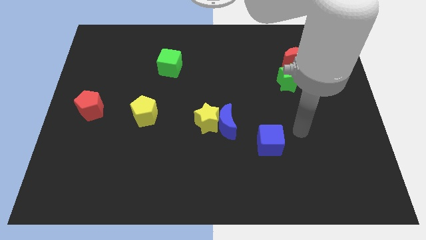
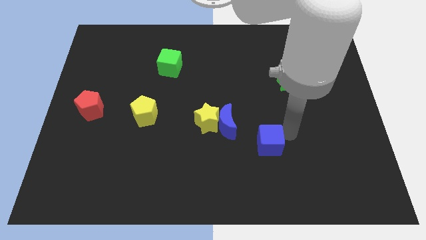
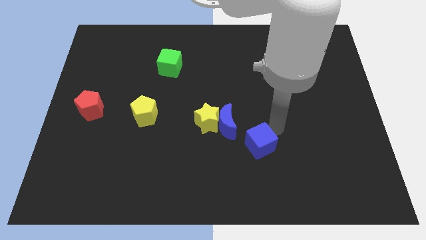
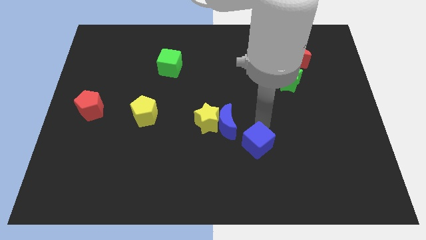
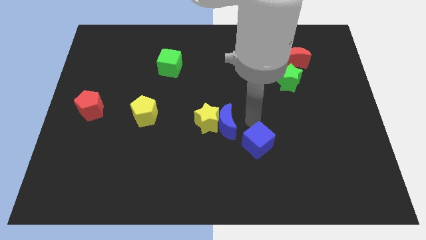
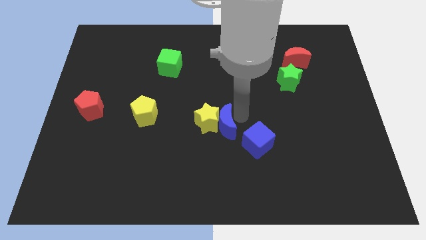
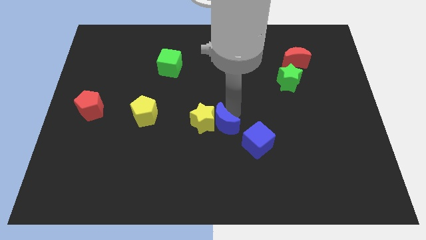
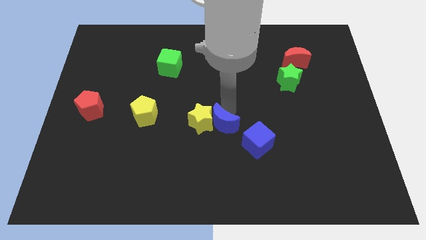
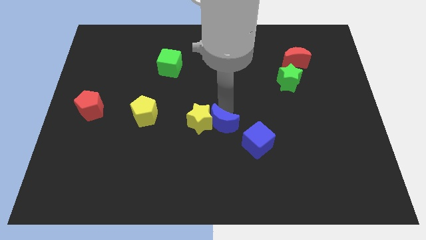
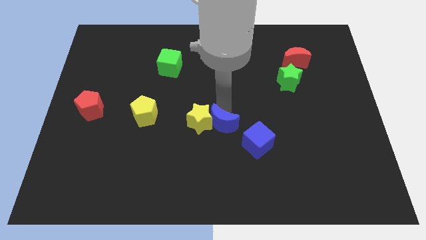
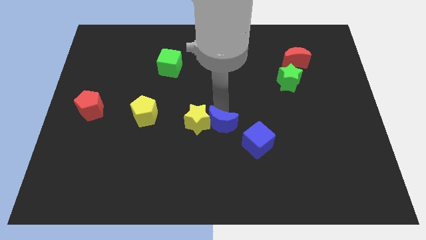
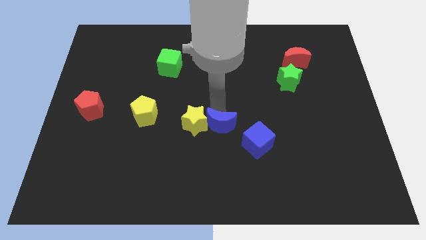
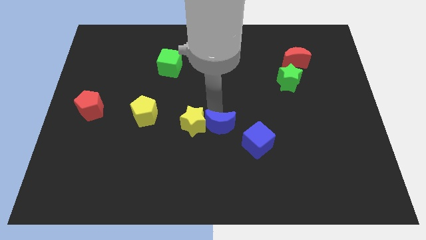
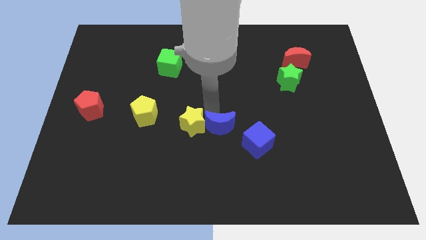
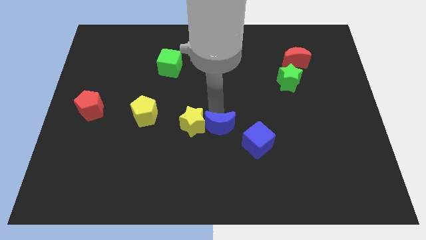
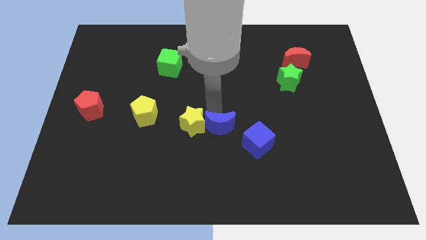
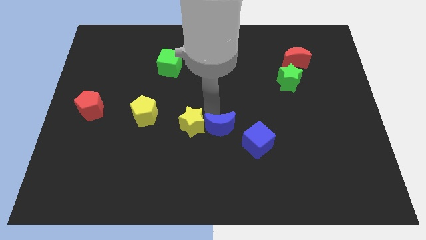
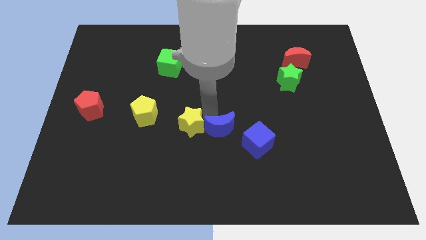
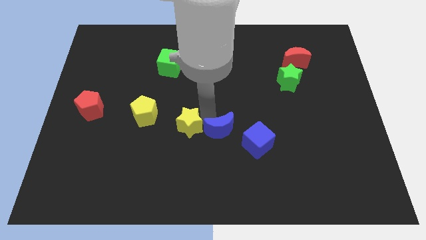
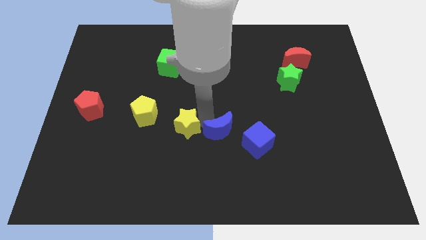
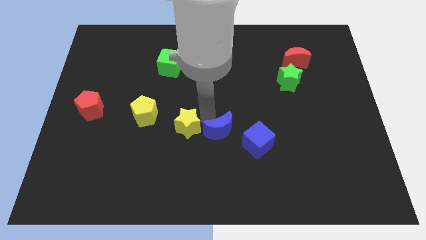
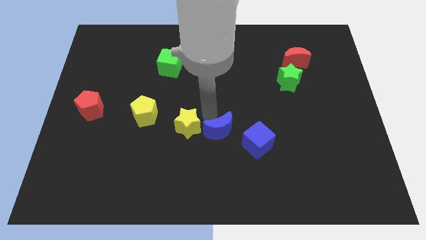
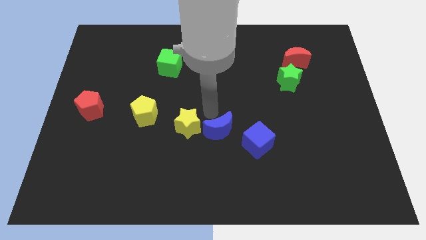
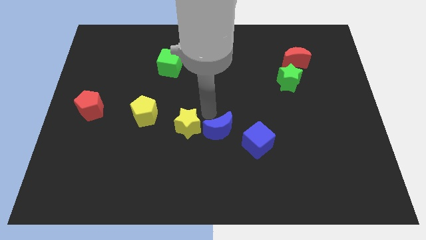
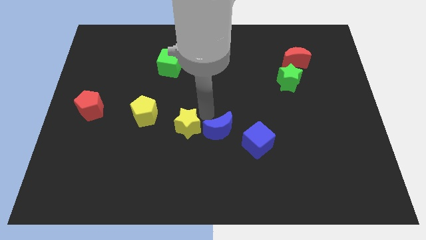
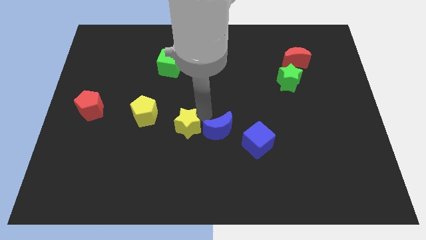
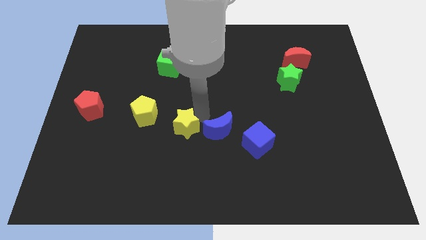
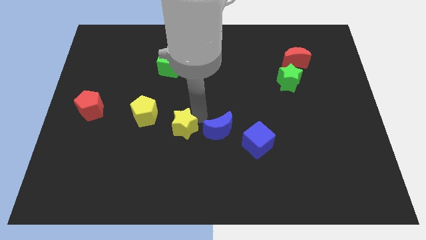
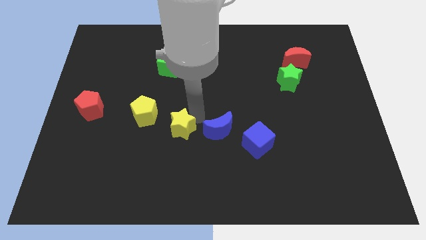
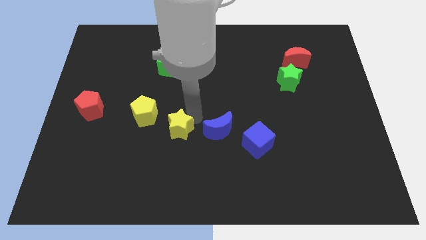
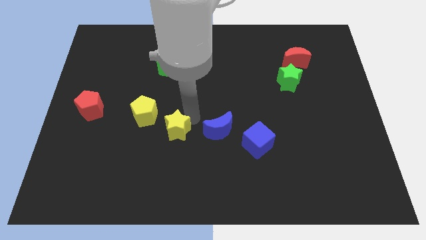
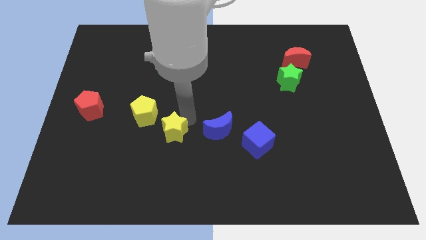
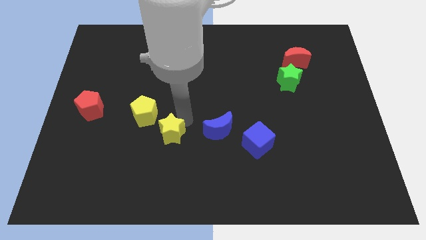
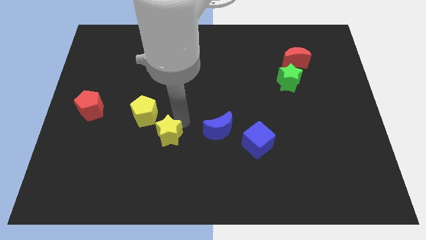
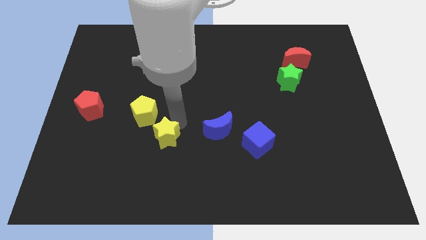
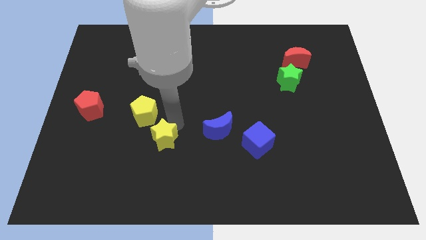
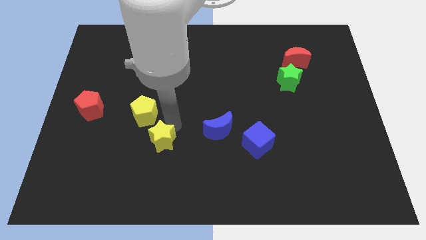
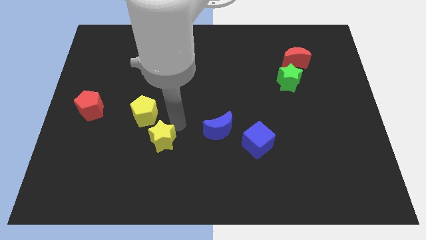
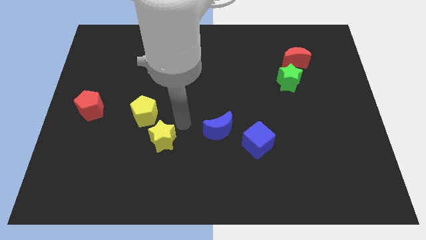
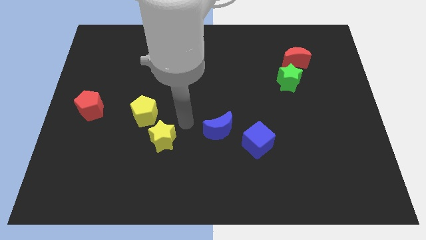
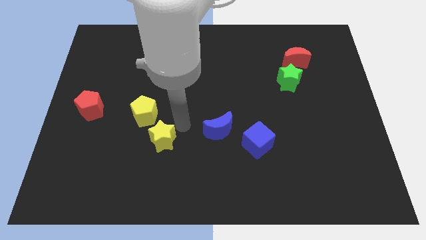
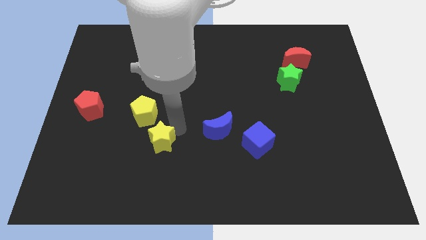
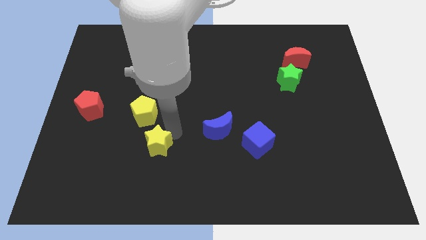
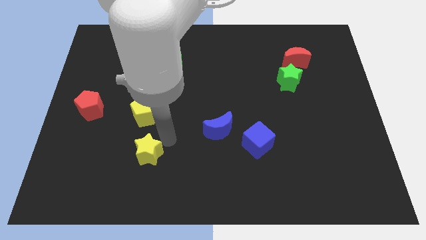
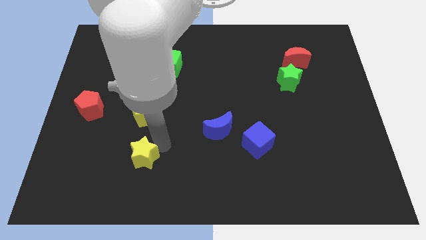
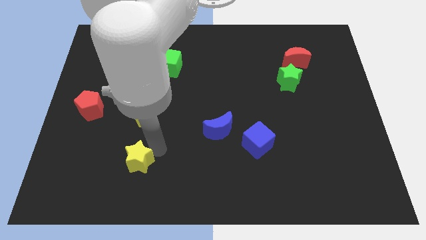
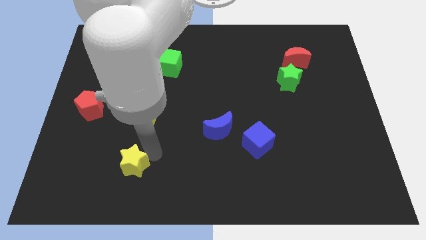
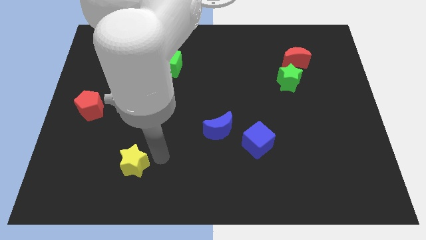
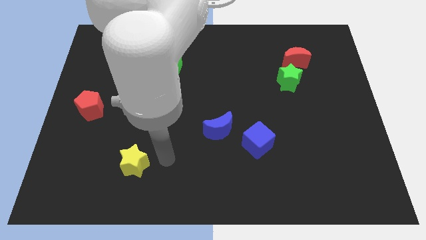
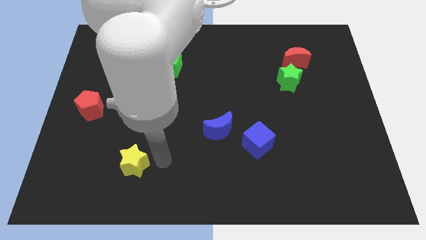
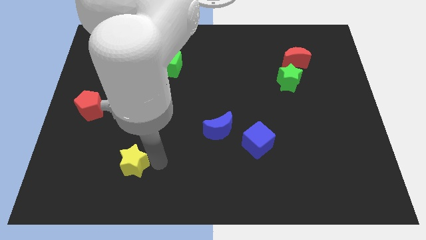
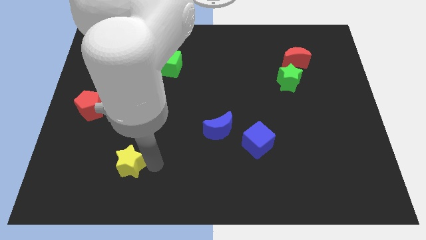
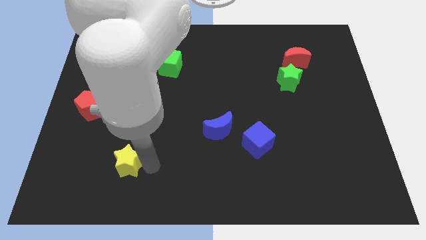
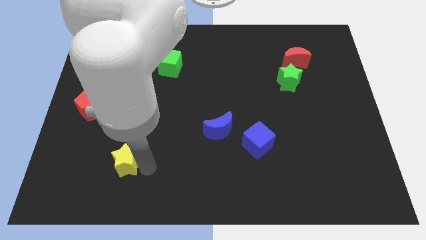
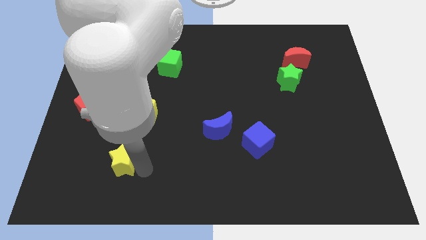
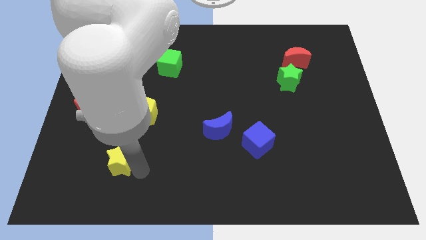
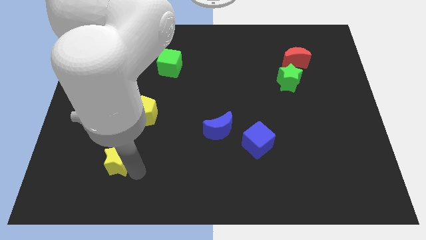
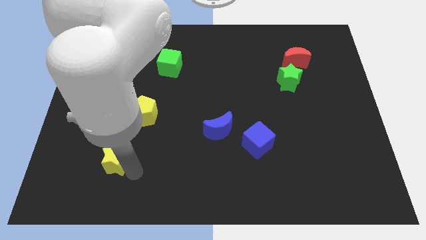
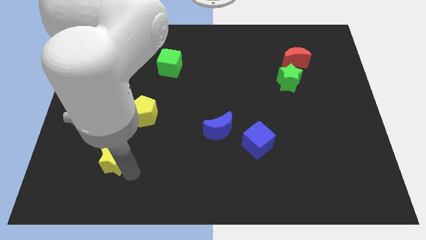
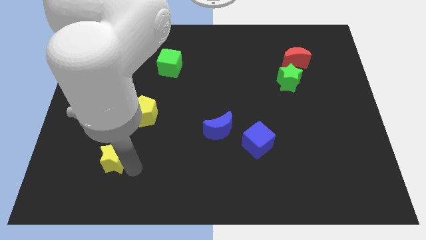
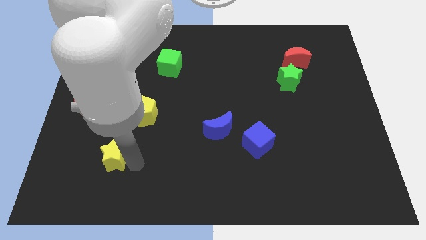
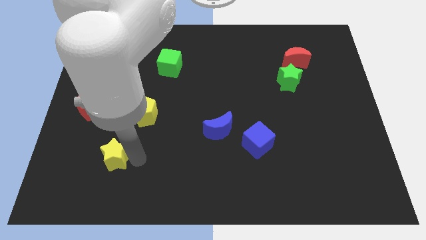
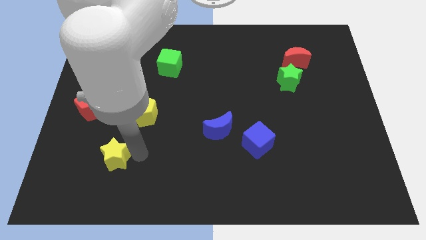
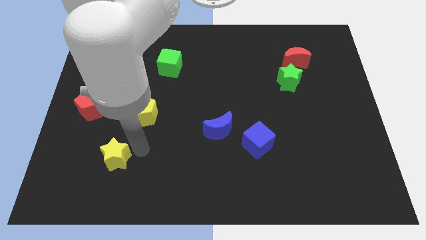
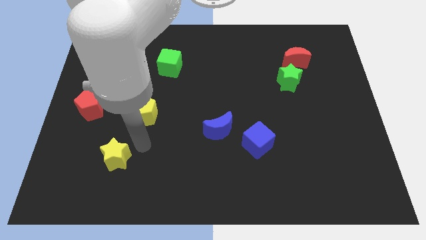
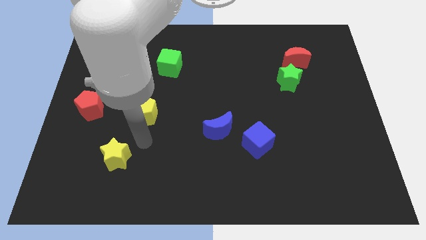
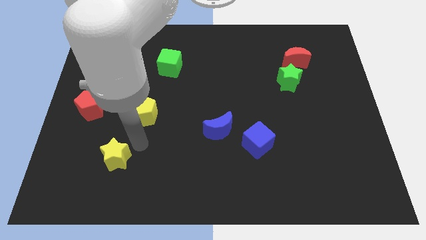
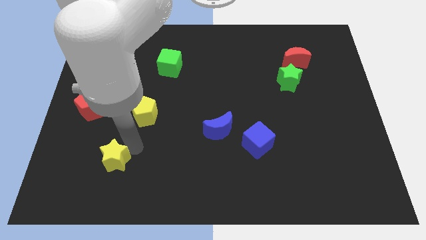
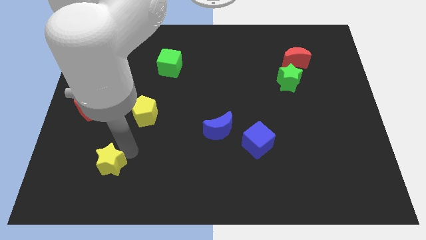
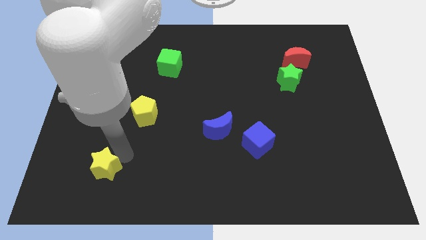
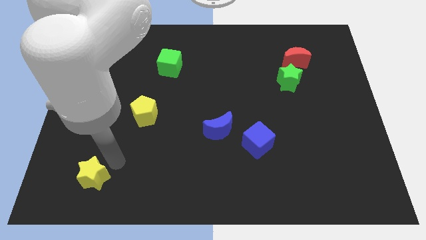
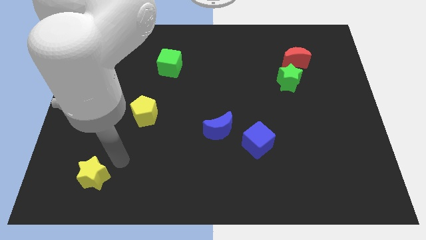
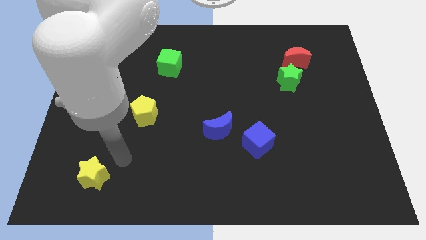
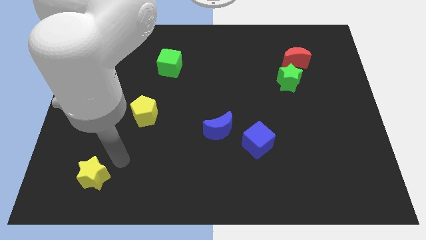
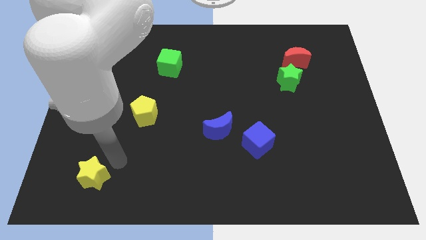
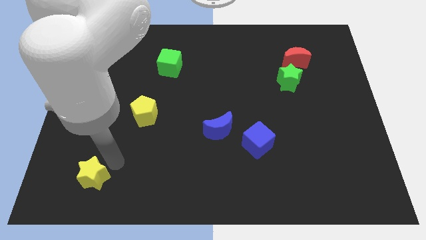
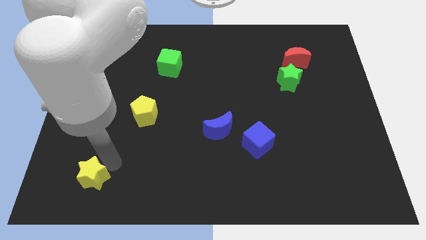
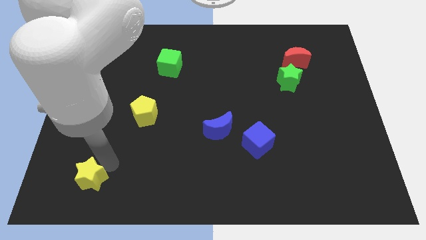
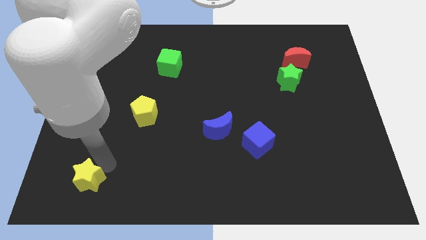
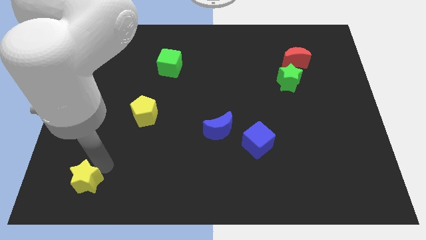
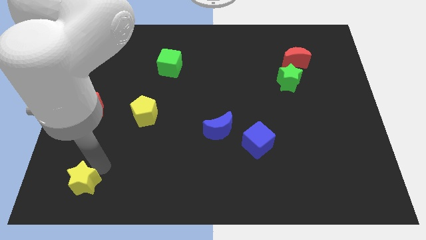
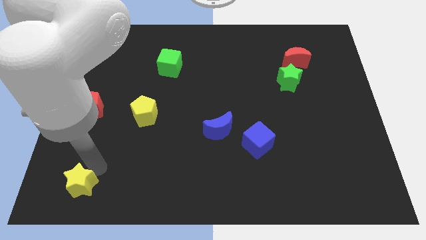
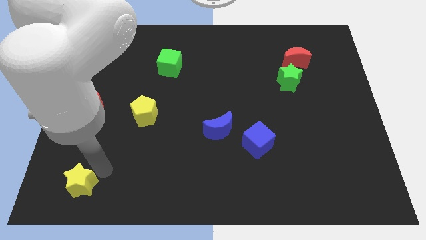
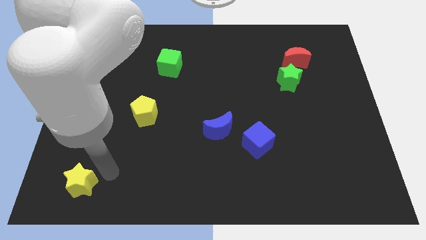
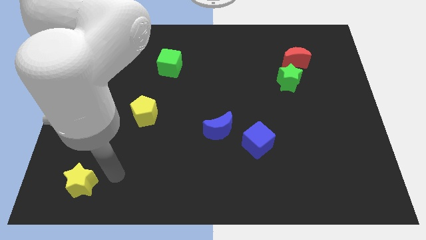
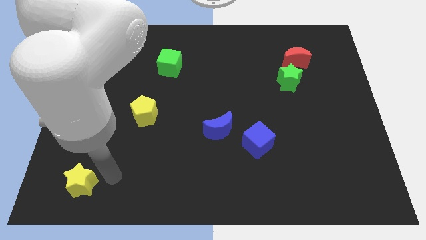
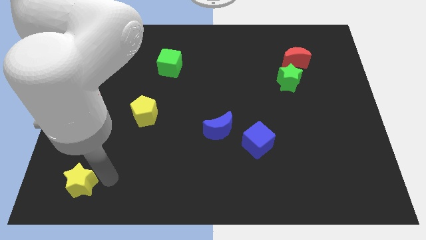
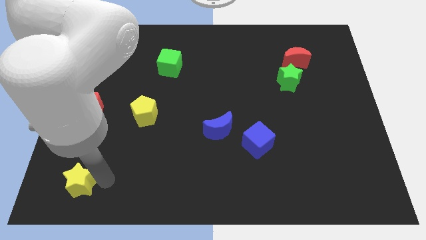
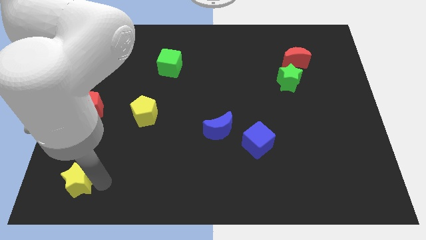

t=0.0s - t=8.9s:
slide the yellow star to the lower left corner
